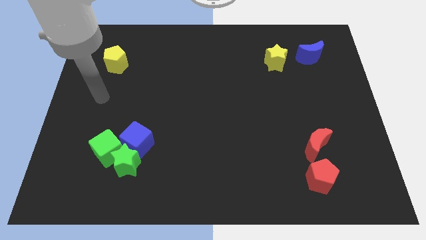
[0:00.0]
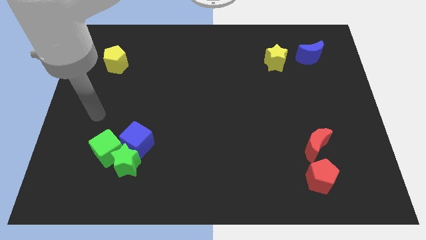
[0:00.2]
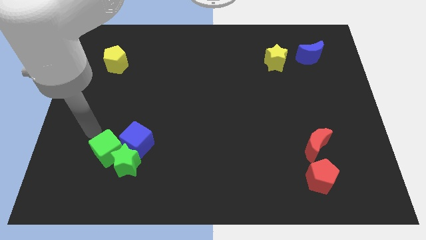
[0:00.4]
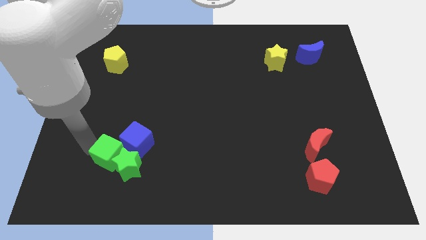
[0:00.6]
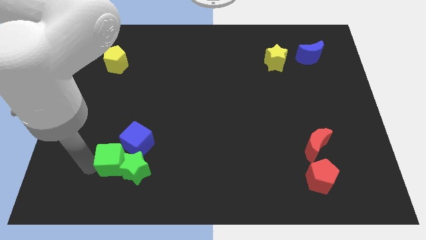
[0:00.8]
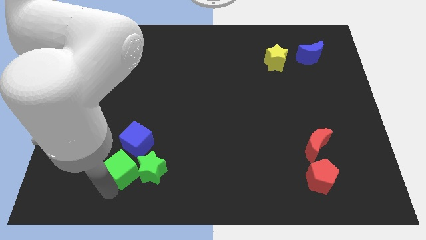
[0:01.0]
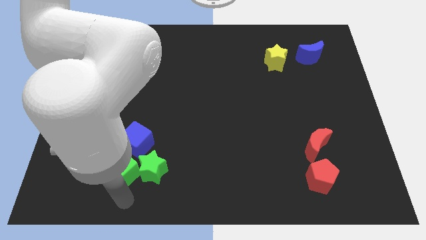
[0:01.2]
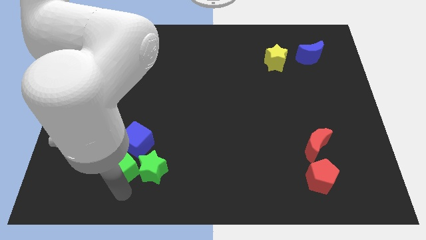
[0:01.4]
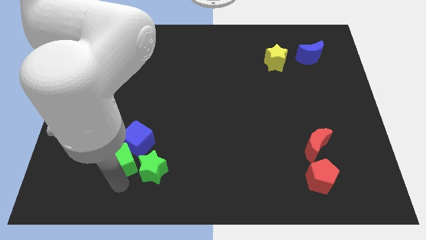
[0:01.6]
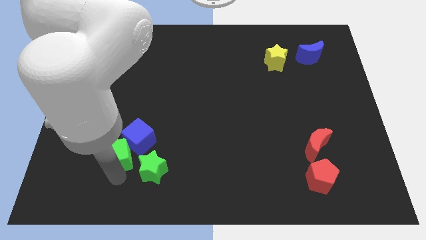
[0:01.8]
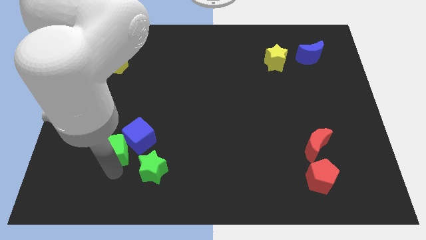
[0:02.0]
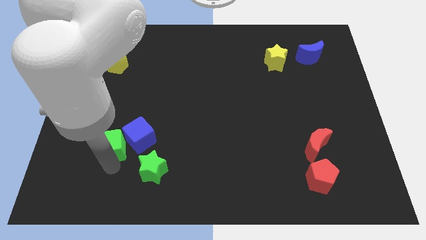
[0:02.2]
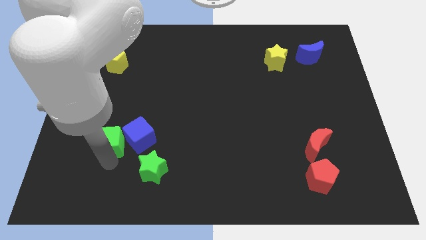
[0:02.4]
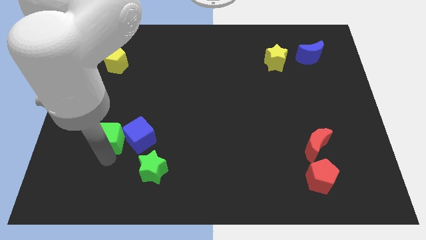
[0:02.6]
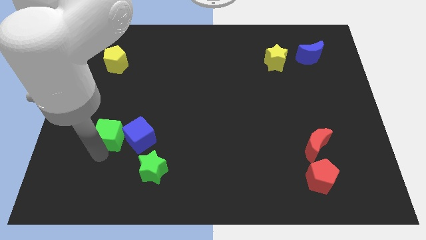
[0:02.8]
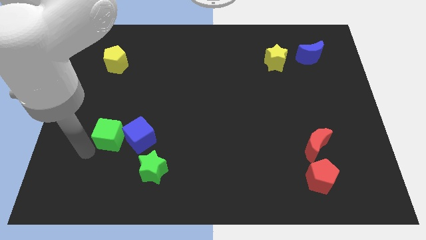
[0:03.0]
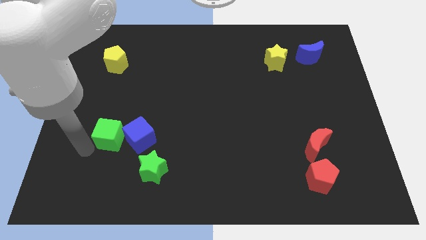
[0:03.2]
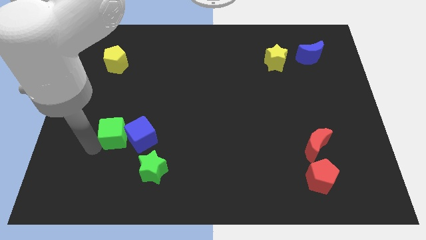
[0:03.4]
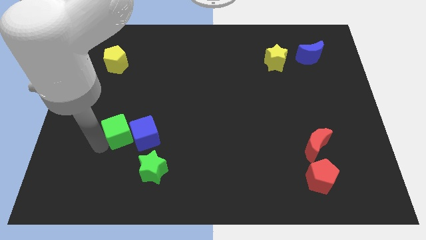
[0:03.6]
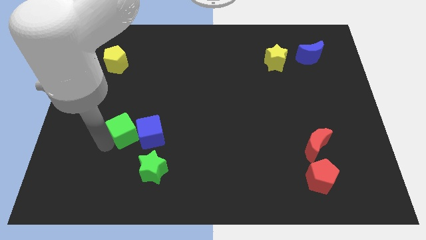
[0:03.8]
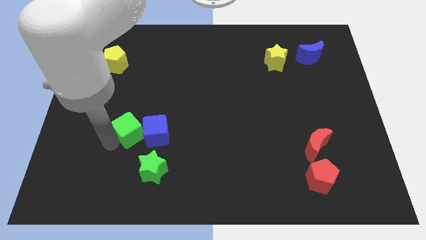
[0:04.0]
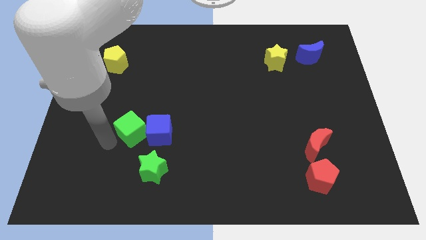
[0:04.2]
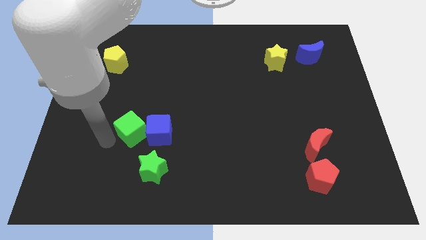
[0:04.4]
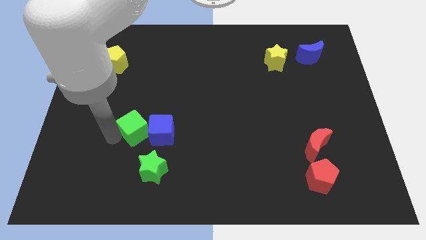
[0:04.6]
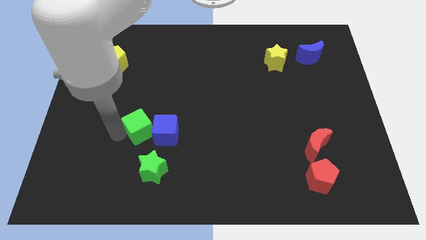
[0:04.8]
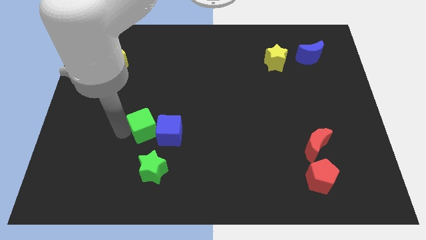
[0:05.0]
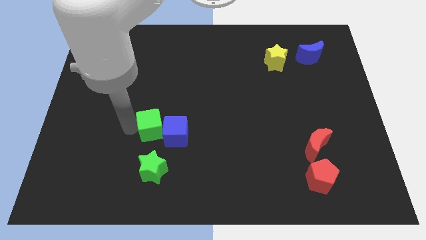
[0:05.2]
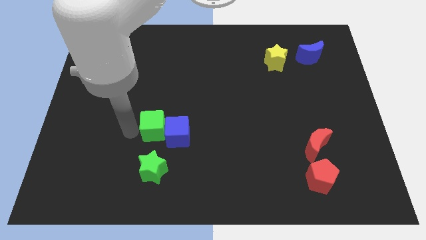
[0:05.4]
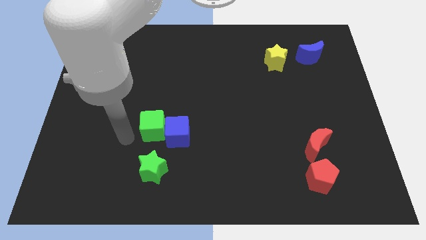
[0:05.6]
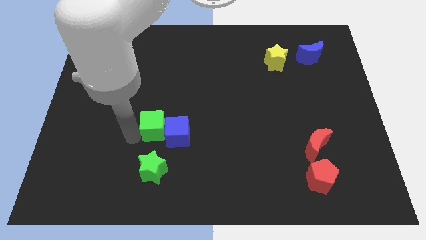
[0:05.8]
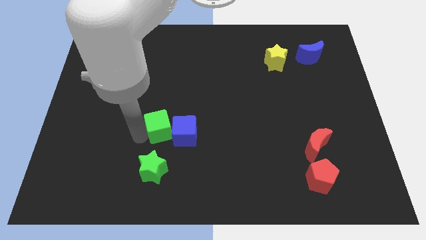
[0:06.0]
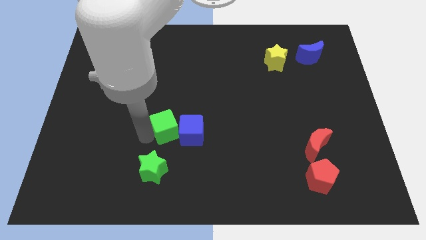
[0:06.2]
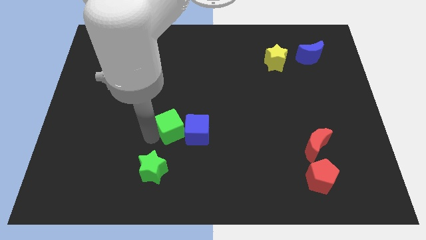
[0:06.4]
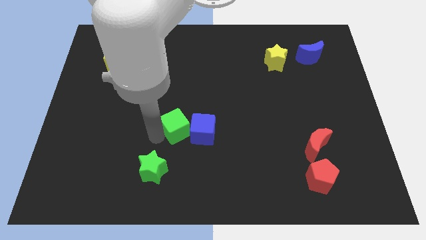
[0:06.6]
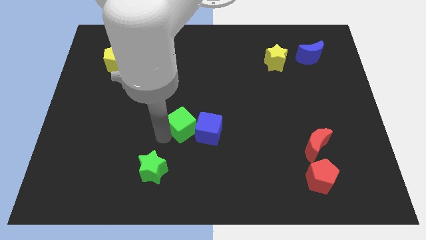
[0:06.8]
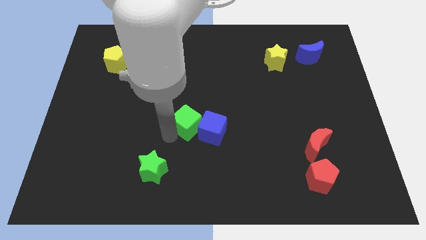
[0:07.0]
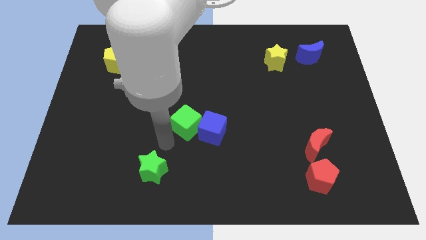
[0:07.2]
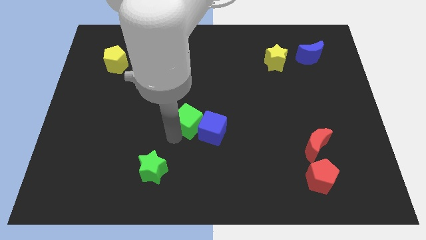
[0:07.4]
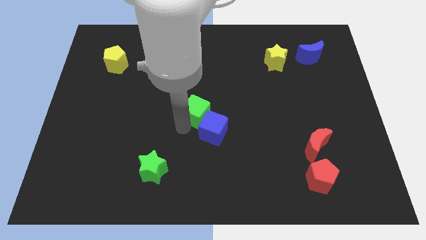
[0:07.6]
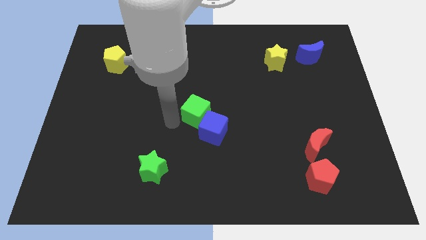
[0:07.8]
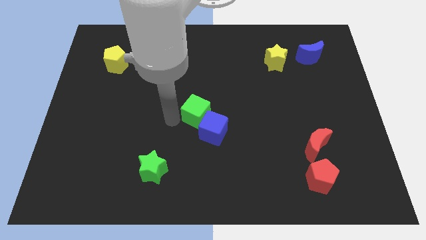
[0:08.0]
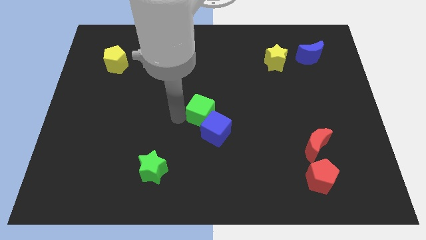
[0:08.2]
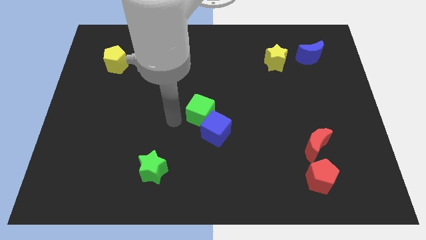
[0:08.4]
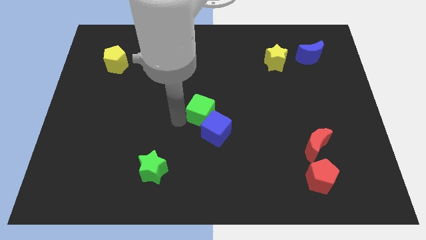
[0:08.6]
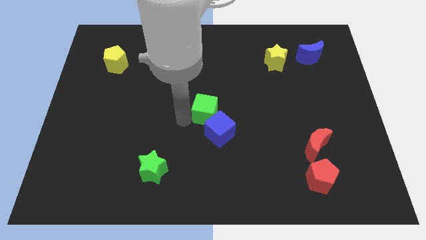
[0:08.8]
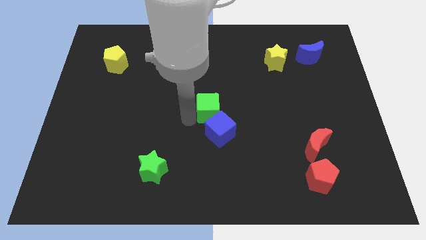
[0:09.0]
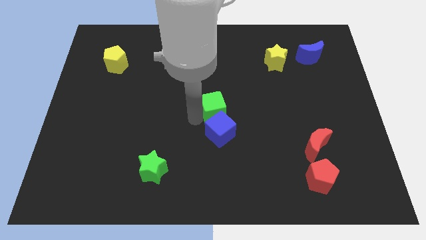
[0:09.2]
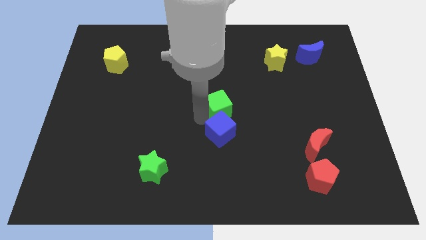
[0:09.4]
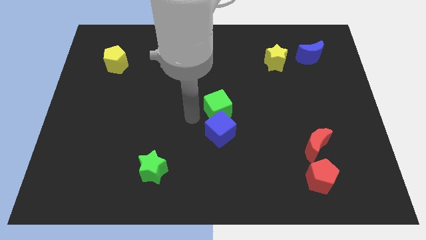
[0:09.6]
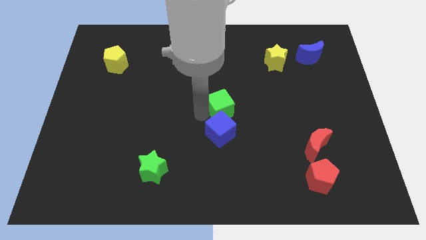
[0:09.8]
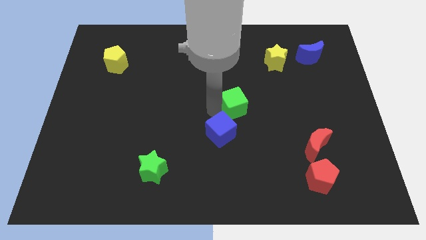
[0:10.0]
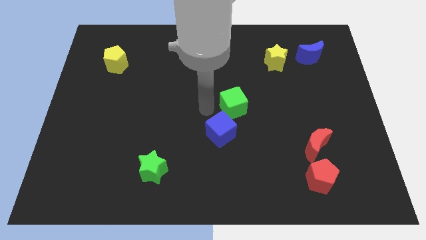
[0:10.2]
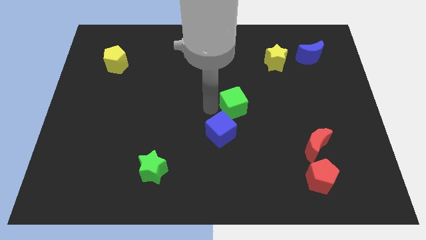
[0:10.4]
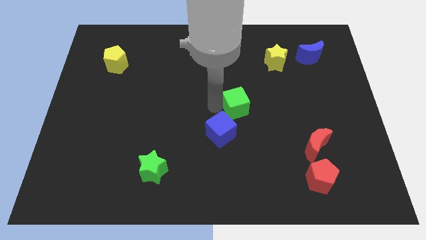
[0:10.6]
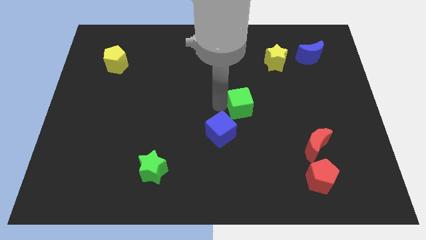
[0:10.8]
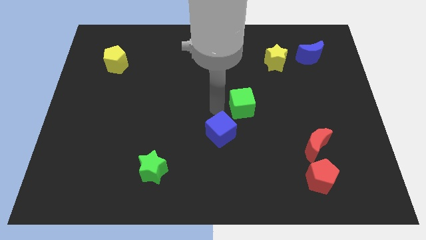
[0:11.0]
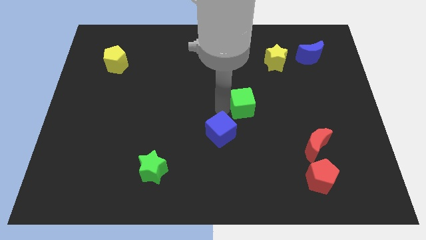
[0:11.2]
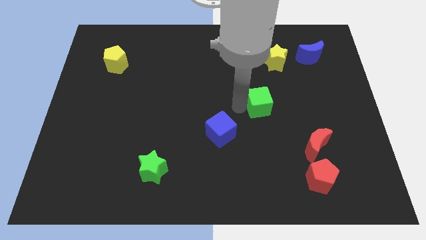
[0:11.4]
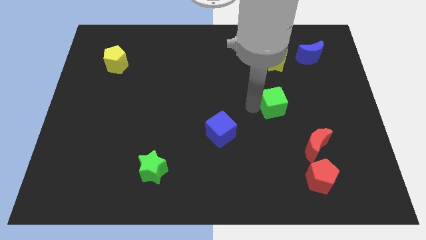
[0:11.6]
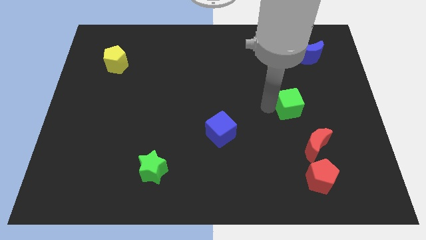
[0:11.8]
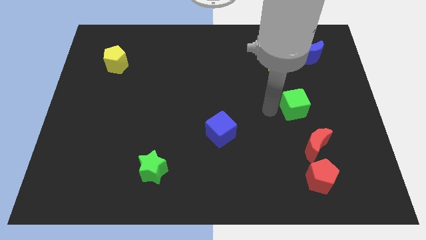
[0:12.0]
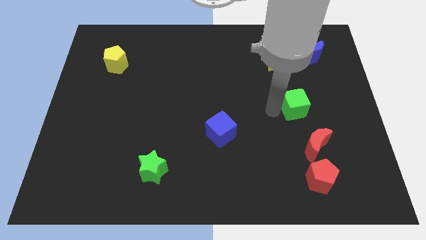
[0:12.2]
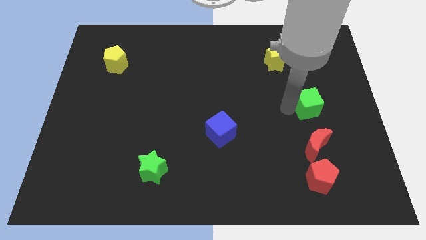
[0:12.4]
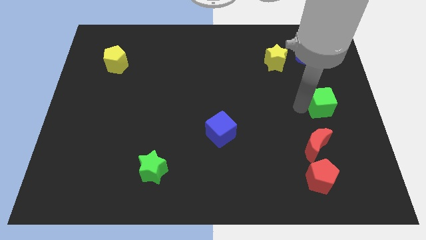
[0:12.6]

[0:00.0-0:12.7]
slide the green cube to the center right
